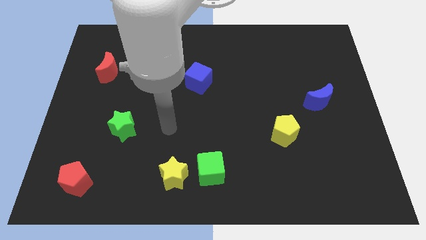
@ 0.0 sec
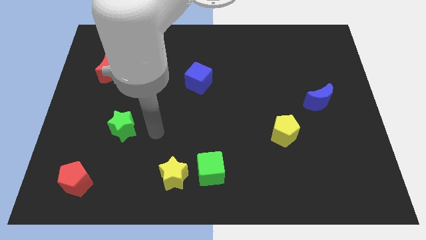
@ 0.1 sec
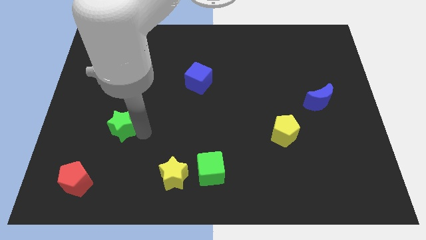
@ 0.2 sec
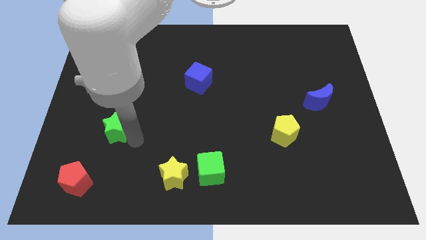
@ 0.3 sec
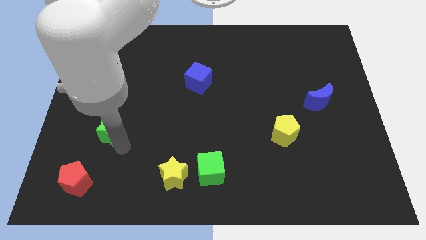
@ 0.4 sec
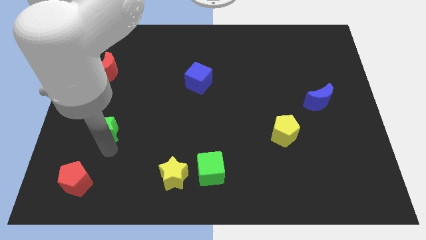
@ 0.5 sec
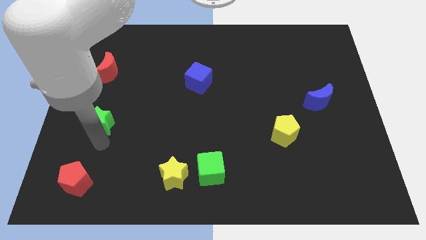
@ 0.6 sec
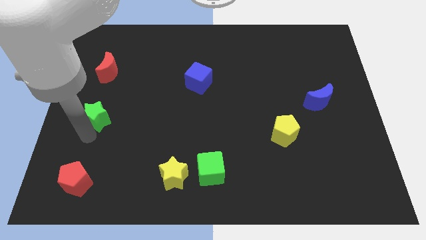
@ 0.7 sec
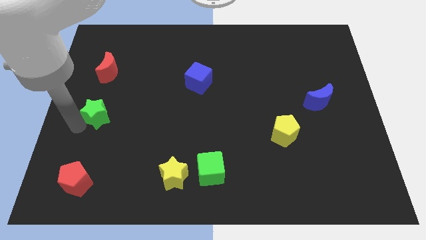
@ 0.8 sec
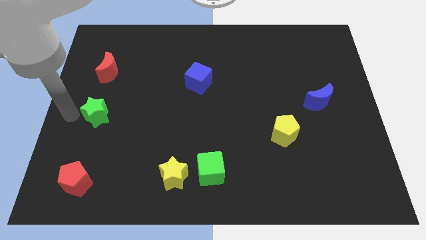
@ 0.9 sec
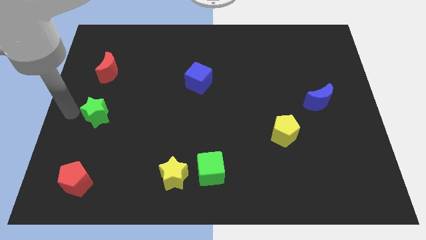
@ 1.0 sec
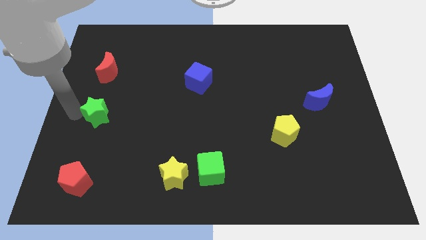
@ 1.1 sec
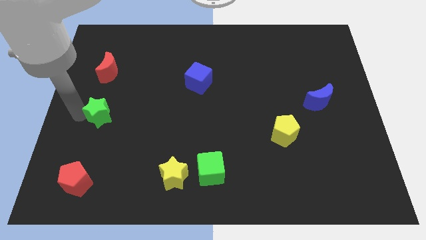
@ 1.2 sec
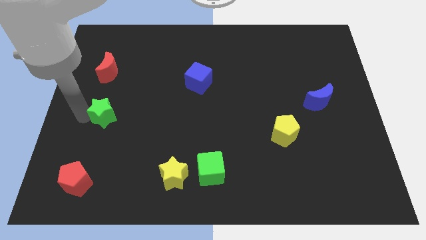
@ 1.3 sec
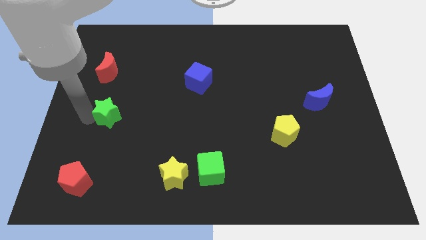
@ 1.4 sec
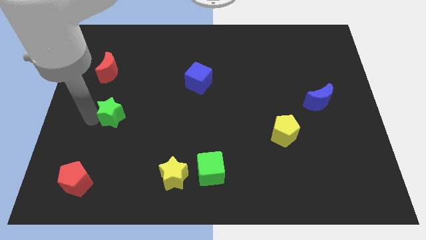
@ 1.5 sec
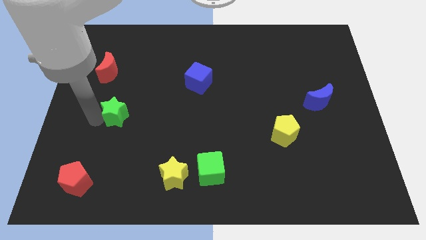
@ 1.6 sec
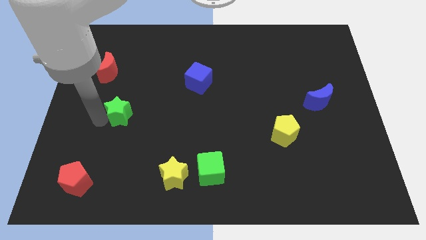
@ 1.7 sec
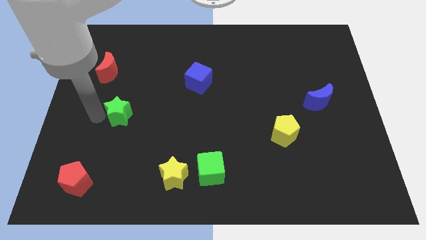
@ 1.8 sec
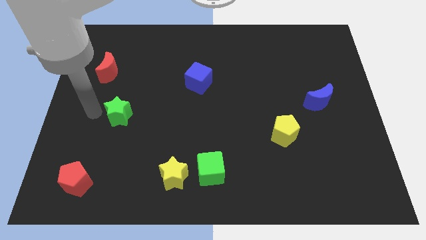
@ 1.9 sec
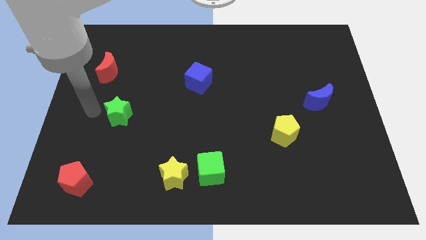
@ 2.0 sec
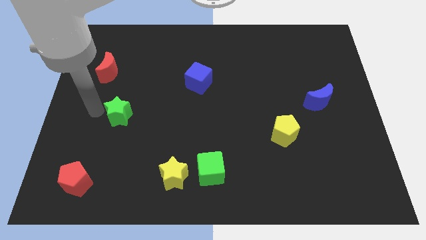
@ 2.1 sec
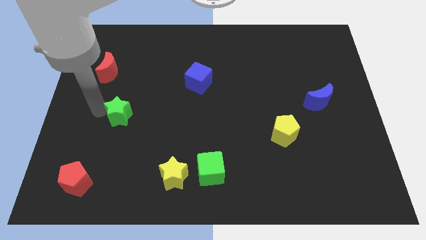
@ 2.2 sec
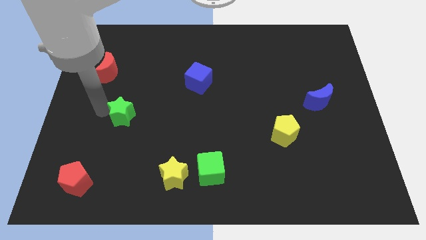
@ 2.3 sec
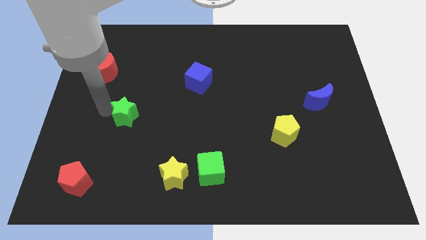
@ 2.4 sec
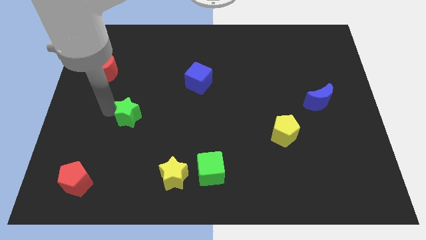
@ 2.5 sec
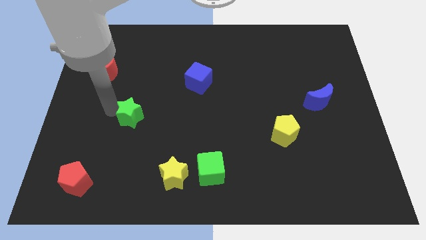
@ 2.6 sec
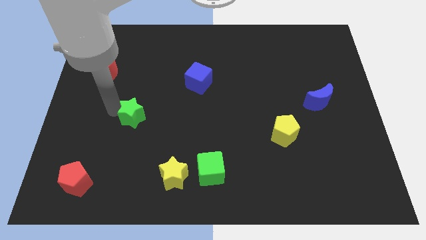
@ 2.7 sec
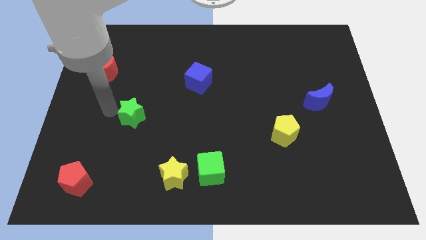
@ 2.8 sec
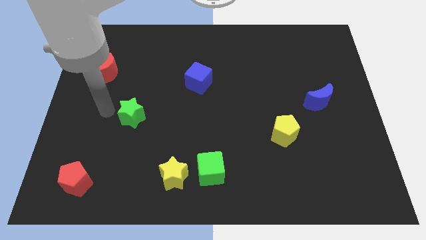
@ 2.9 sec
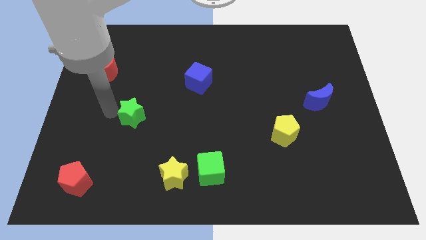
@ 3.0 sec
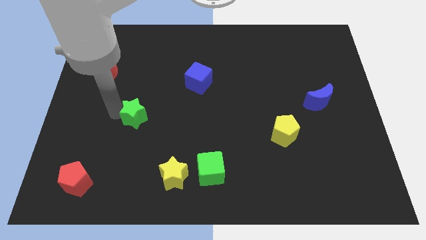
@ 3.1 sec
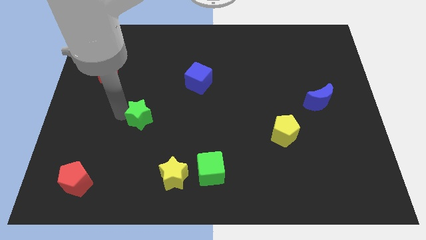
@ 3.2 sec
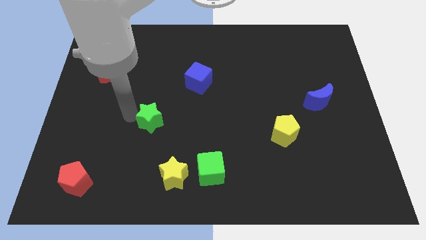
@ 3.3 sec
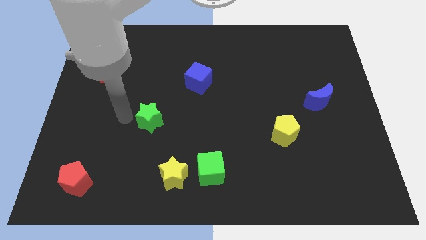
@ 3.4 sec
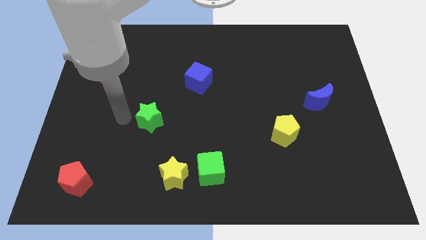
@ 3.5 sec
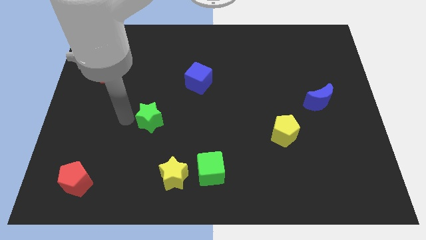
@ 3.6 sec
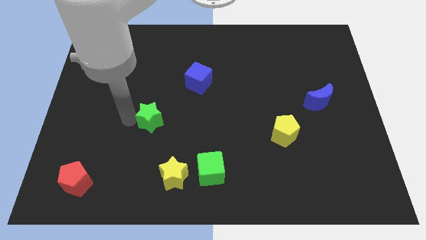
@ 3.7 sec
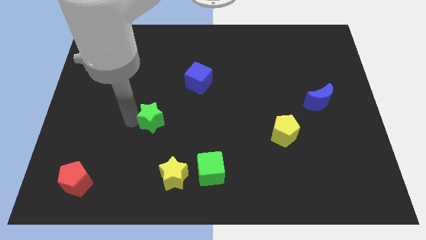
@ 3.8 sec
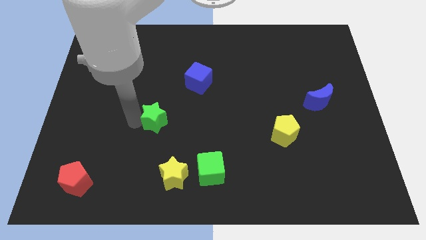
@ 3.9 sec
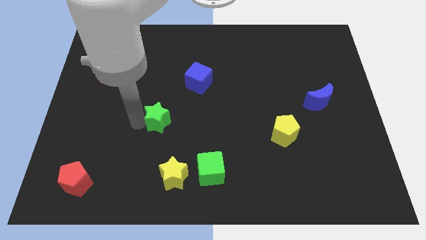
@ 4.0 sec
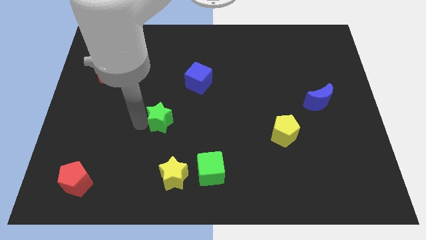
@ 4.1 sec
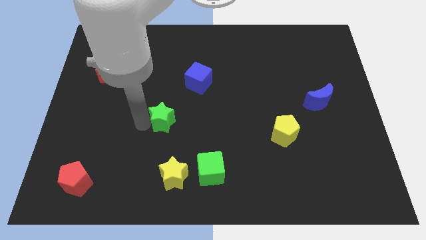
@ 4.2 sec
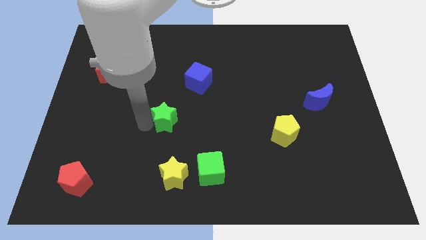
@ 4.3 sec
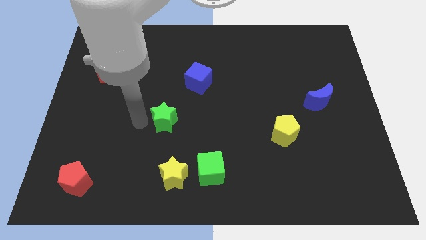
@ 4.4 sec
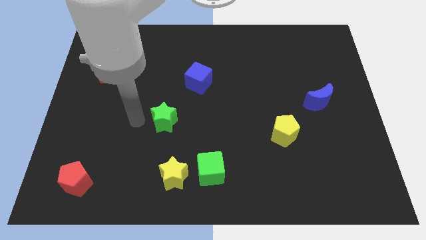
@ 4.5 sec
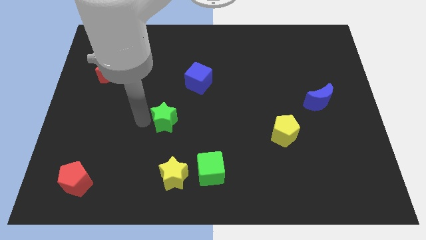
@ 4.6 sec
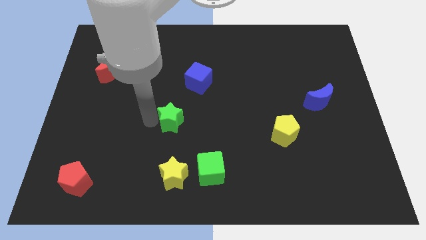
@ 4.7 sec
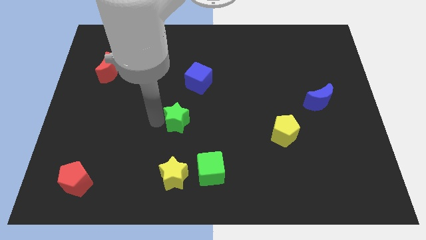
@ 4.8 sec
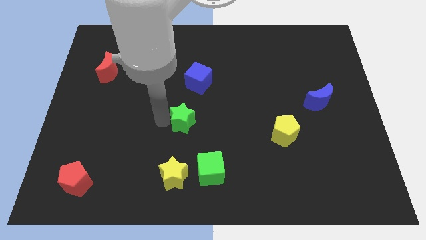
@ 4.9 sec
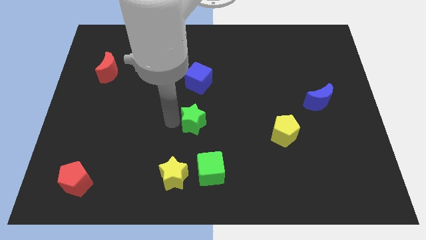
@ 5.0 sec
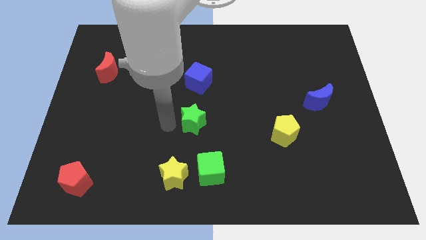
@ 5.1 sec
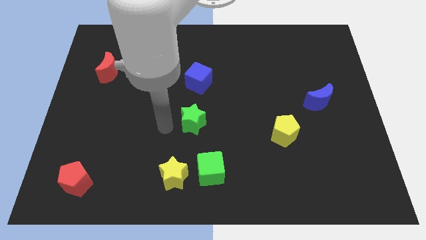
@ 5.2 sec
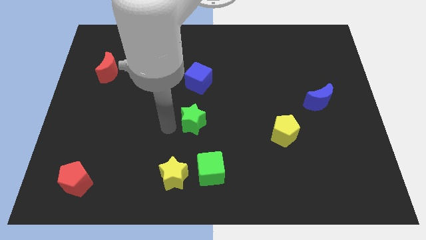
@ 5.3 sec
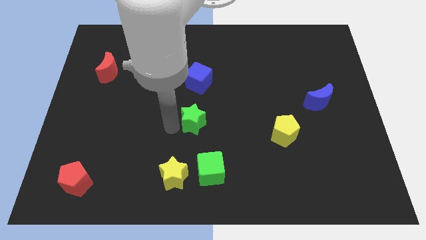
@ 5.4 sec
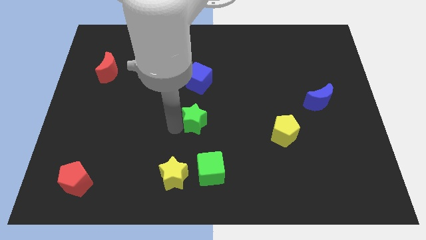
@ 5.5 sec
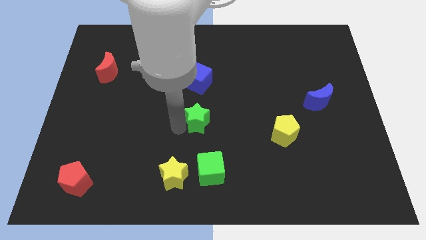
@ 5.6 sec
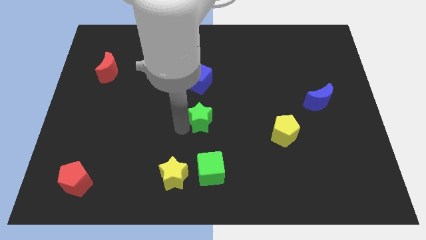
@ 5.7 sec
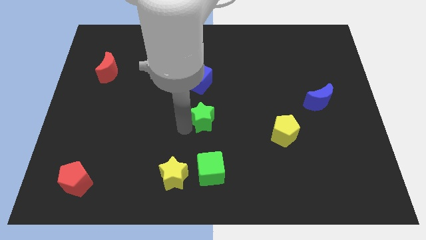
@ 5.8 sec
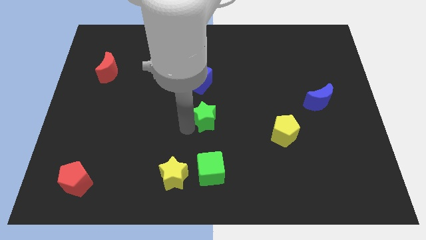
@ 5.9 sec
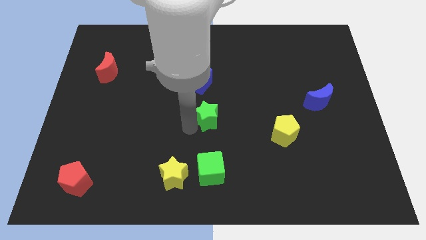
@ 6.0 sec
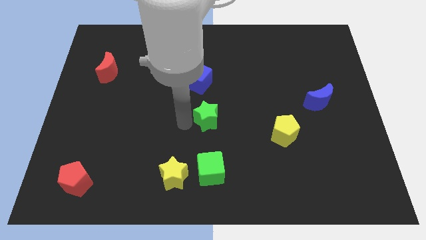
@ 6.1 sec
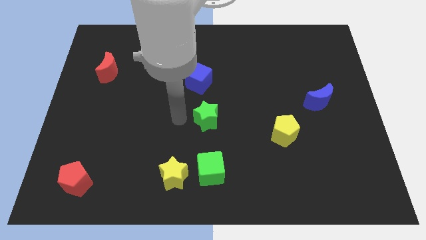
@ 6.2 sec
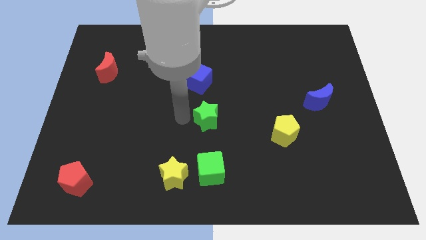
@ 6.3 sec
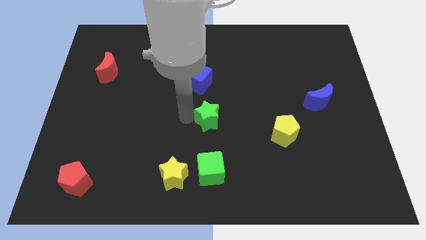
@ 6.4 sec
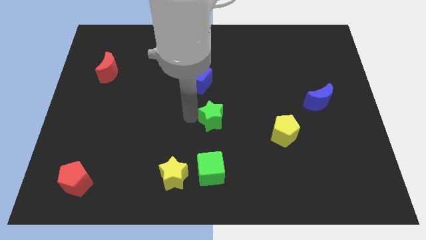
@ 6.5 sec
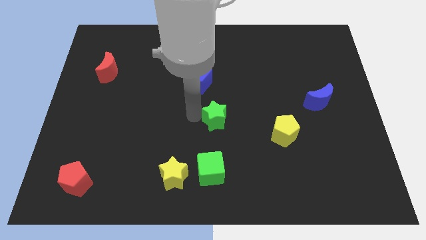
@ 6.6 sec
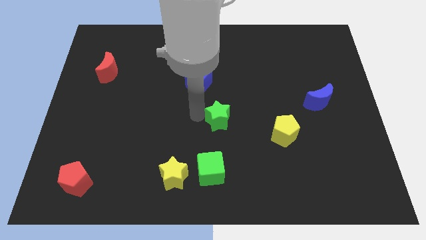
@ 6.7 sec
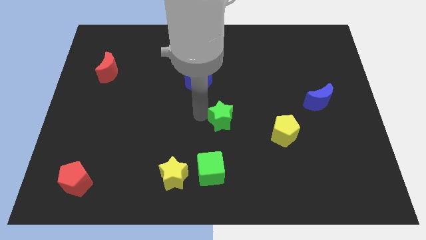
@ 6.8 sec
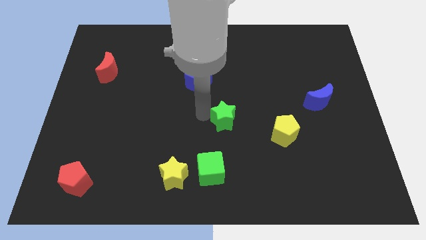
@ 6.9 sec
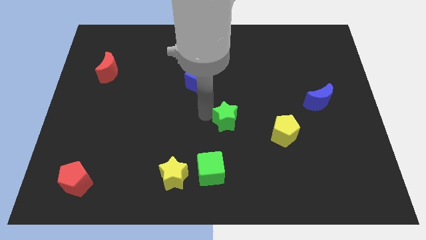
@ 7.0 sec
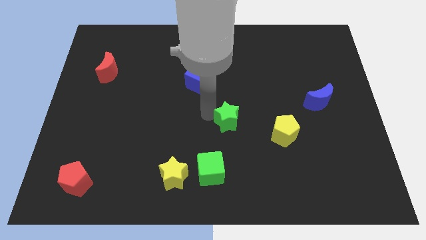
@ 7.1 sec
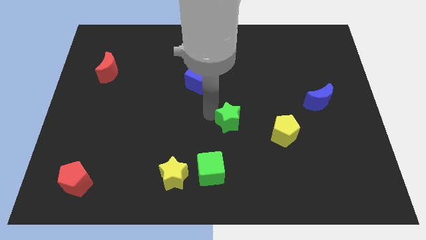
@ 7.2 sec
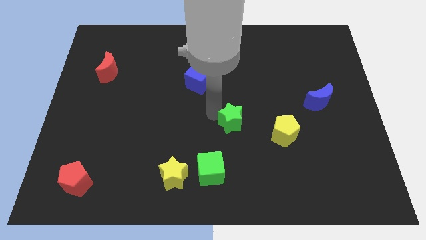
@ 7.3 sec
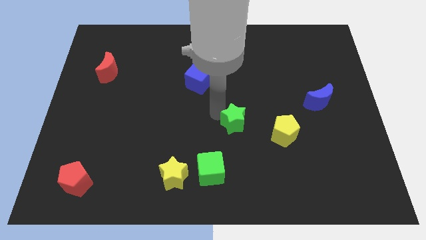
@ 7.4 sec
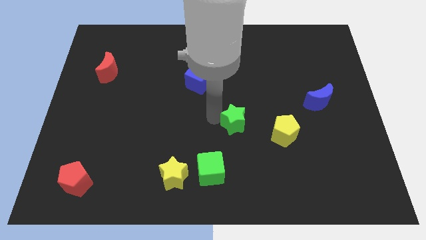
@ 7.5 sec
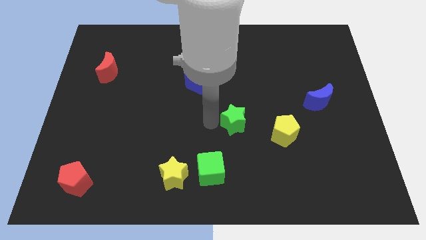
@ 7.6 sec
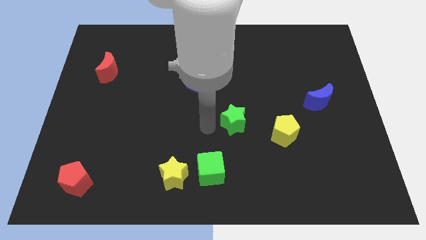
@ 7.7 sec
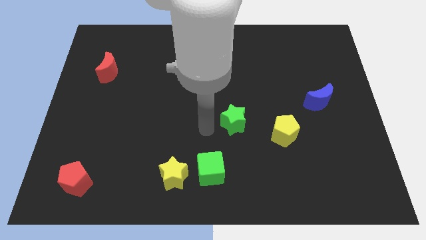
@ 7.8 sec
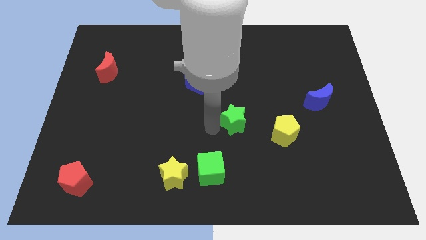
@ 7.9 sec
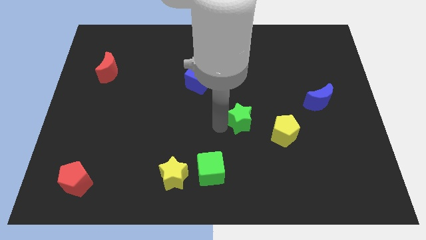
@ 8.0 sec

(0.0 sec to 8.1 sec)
push the green star to the top left of the yellow pentagon
